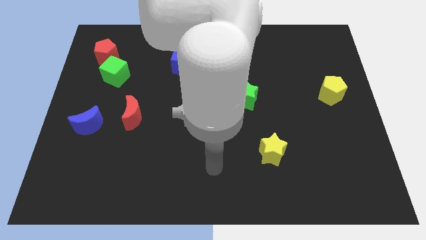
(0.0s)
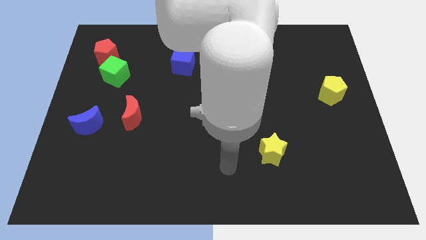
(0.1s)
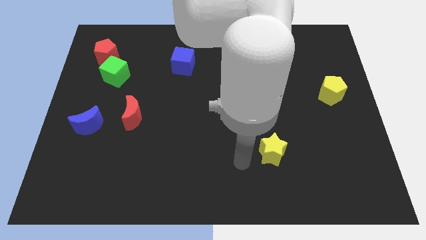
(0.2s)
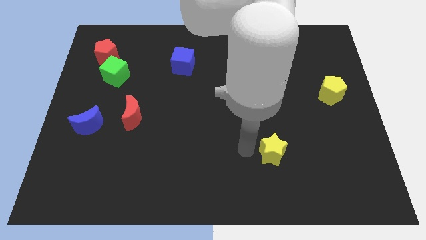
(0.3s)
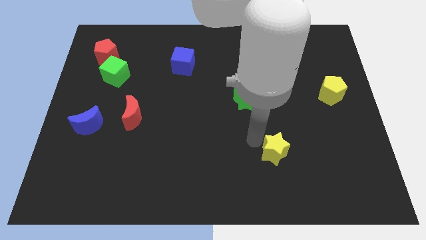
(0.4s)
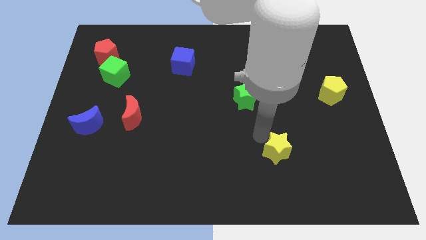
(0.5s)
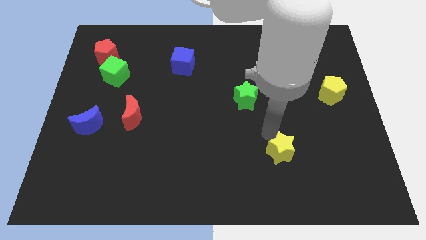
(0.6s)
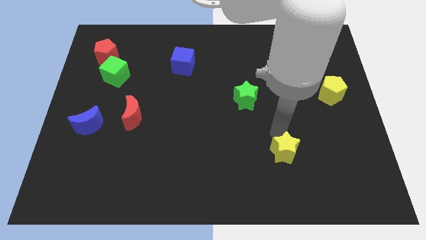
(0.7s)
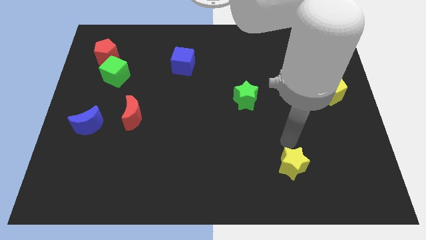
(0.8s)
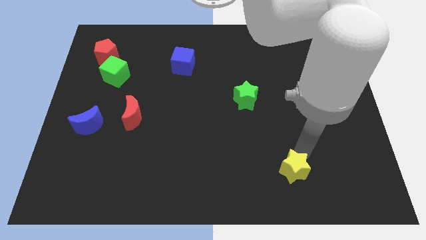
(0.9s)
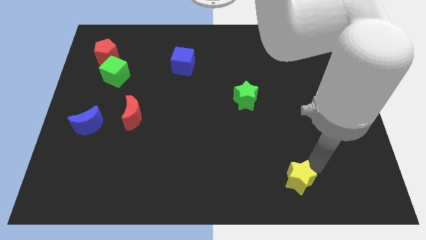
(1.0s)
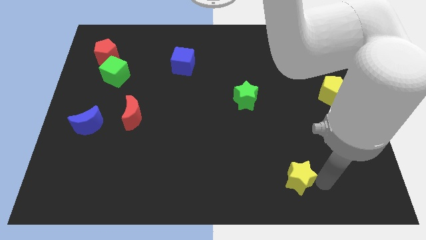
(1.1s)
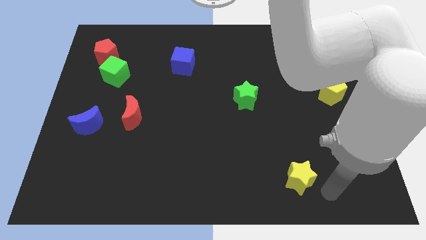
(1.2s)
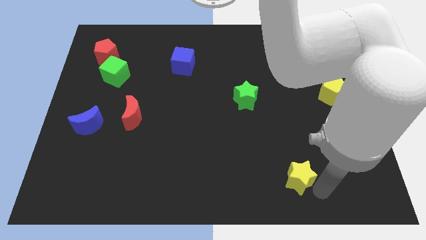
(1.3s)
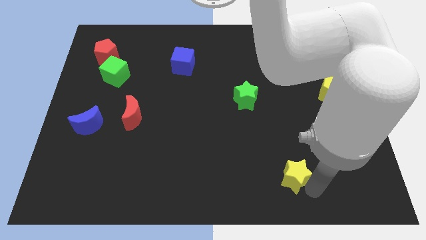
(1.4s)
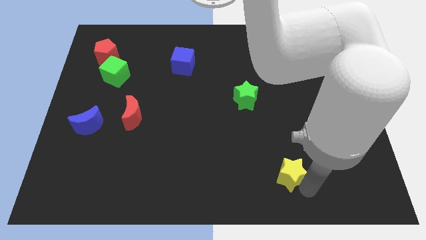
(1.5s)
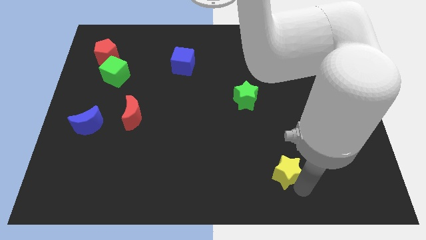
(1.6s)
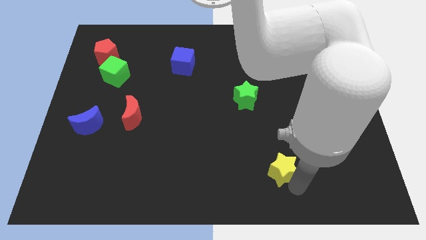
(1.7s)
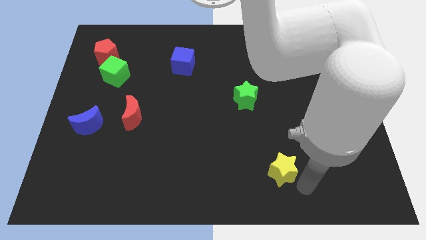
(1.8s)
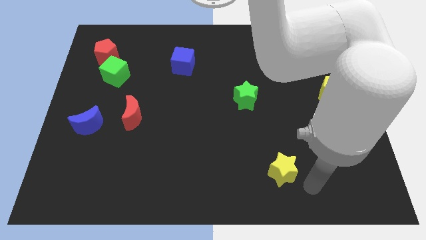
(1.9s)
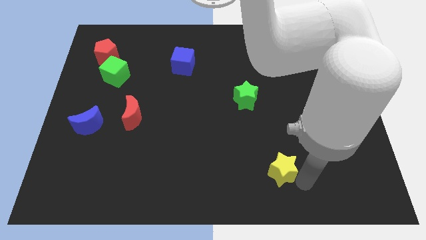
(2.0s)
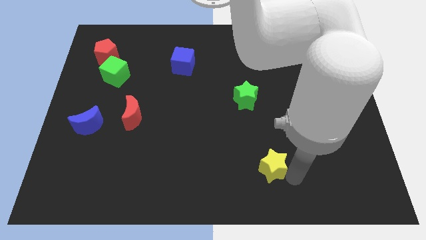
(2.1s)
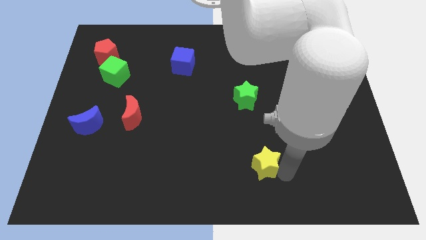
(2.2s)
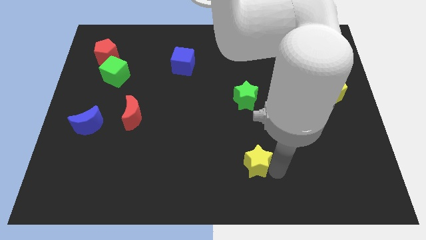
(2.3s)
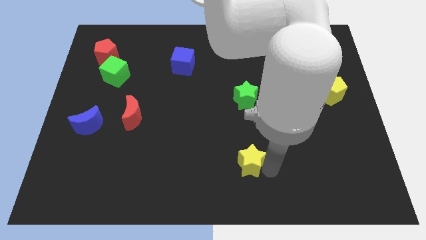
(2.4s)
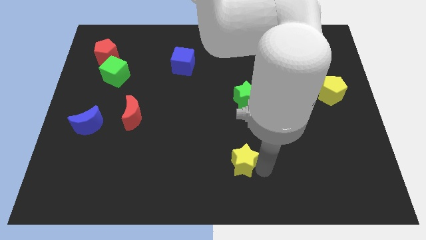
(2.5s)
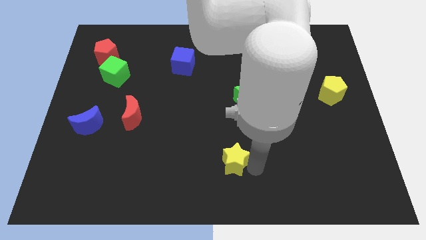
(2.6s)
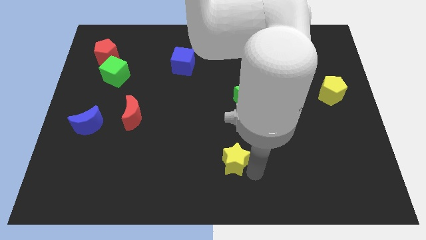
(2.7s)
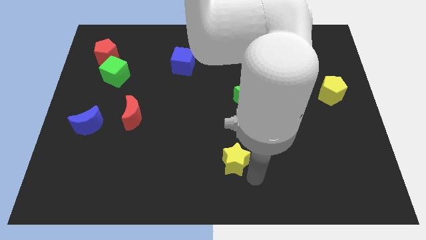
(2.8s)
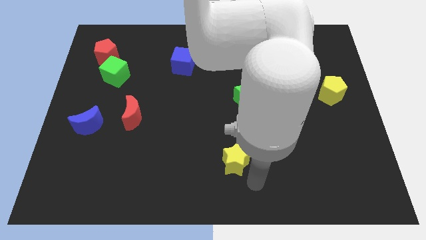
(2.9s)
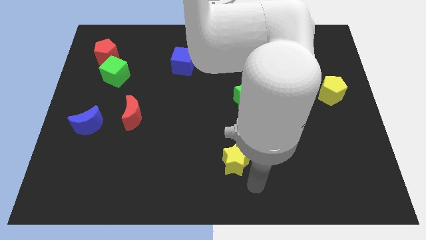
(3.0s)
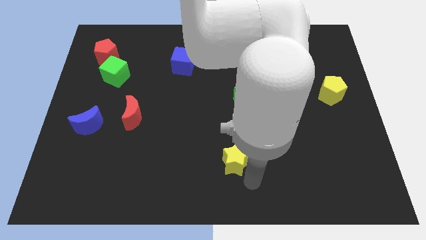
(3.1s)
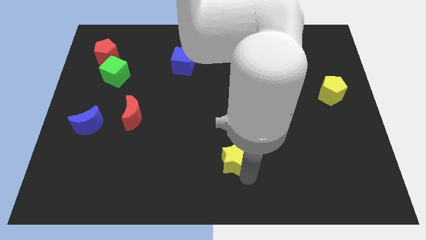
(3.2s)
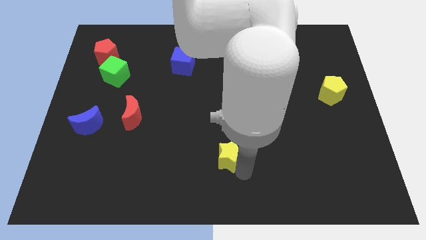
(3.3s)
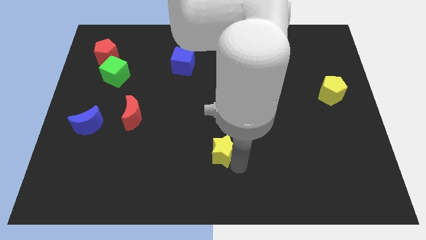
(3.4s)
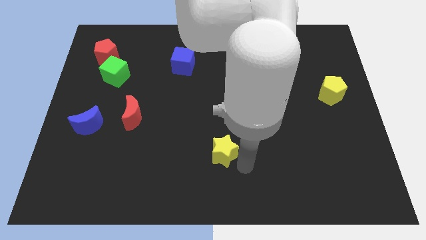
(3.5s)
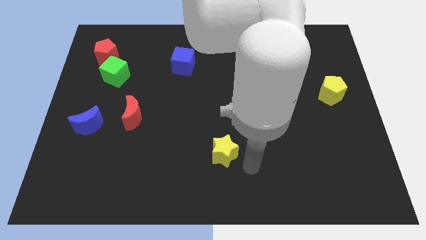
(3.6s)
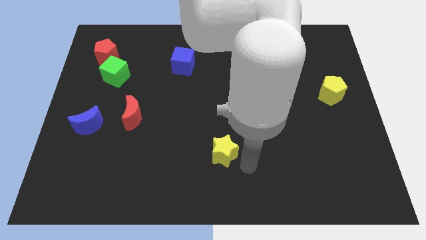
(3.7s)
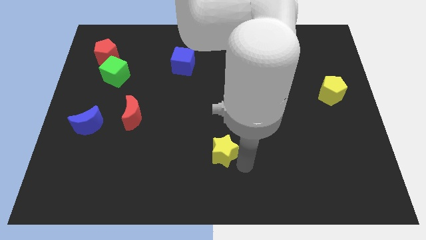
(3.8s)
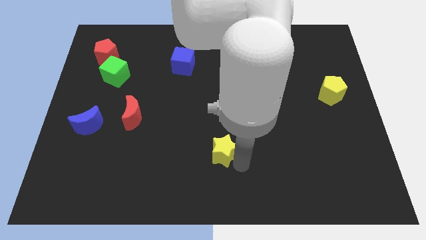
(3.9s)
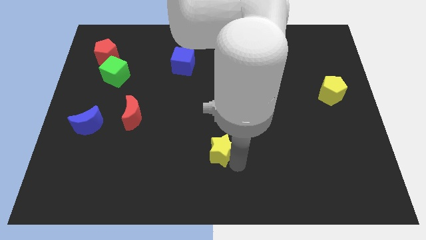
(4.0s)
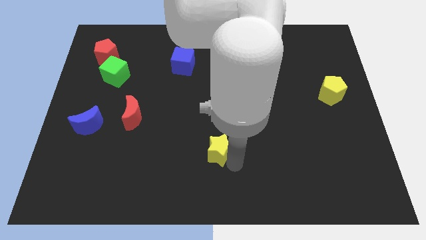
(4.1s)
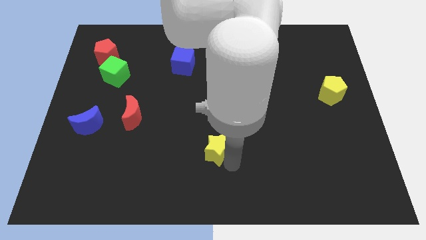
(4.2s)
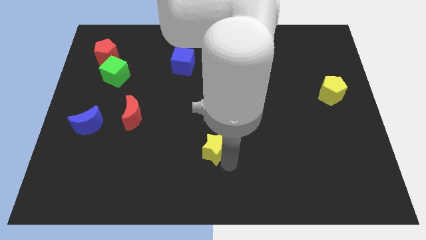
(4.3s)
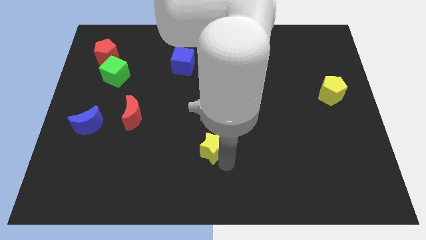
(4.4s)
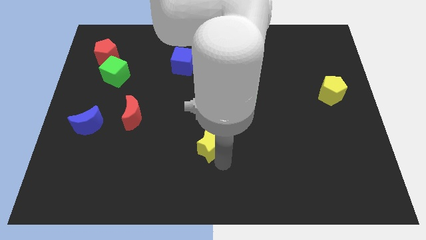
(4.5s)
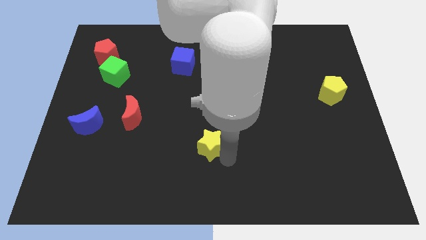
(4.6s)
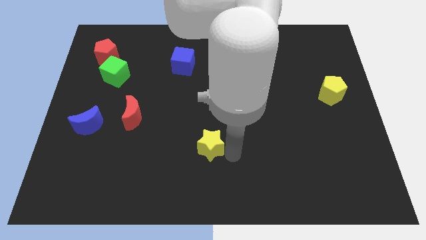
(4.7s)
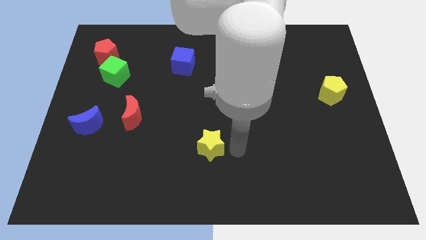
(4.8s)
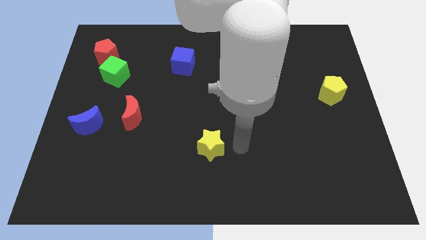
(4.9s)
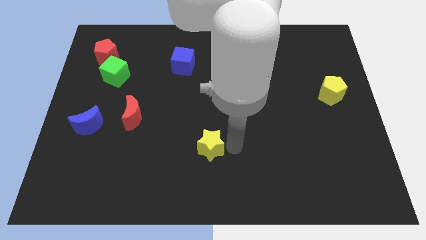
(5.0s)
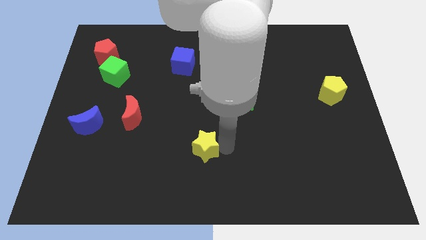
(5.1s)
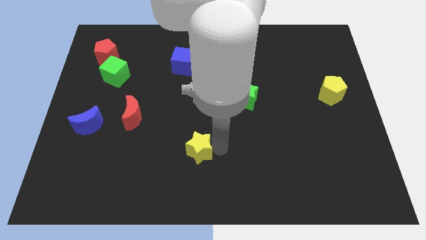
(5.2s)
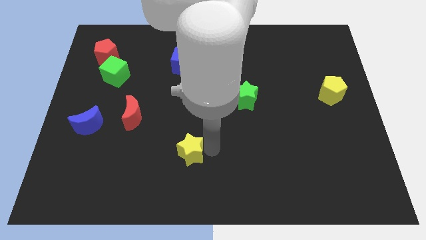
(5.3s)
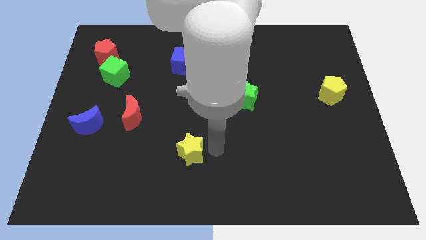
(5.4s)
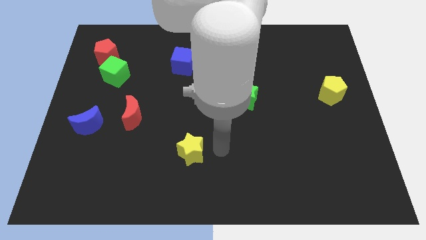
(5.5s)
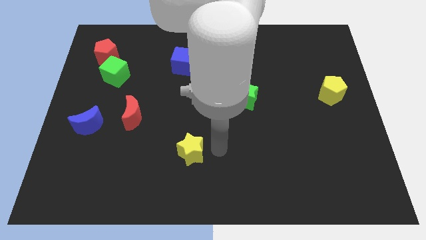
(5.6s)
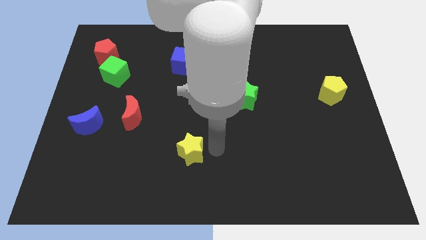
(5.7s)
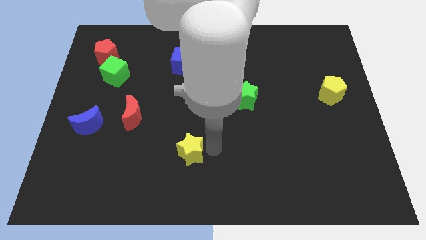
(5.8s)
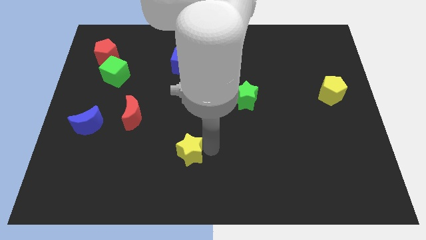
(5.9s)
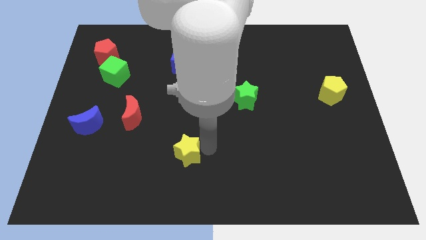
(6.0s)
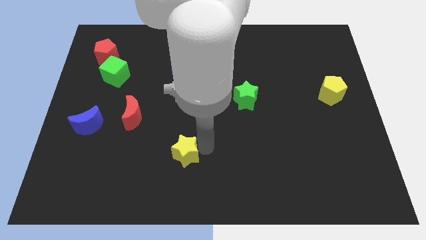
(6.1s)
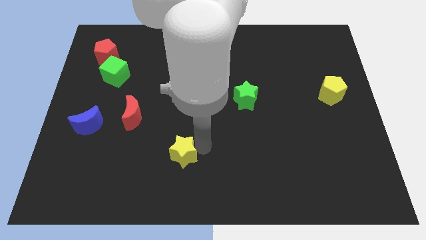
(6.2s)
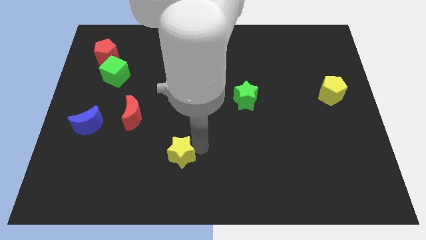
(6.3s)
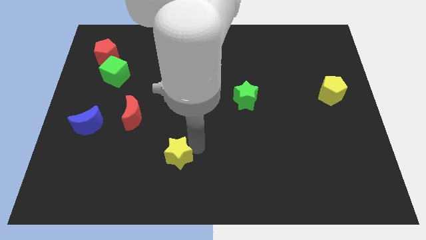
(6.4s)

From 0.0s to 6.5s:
slide the yellow star left

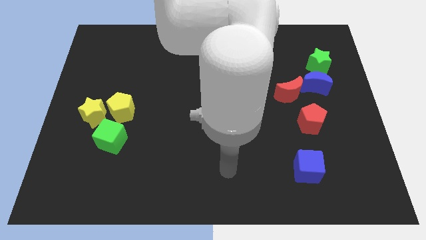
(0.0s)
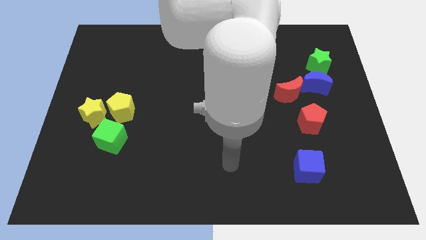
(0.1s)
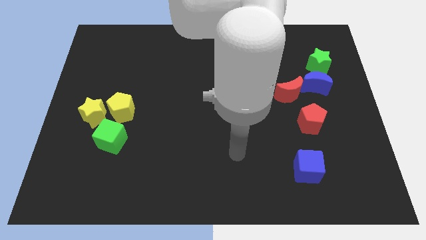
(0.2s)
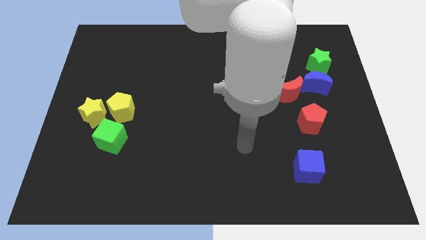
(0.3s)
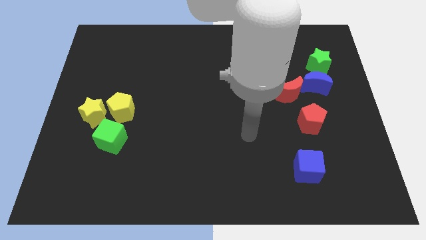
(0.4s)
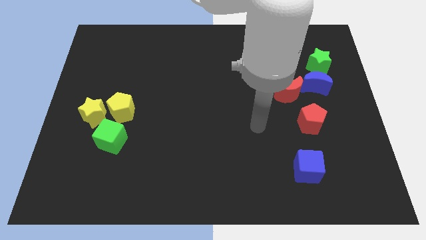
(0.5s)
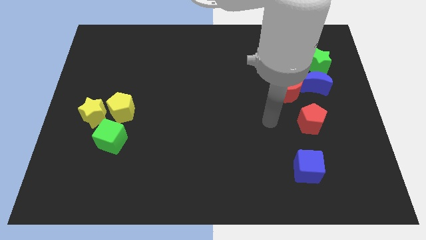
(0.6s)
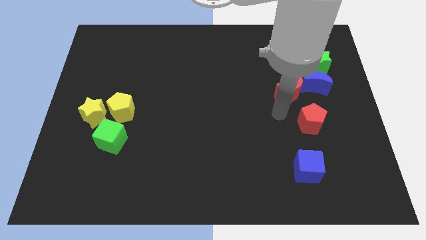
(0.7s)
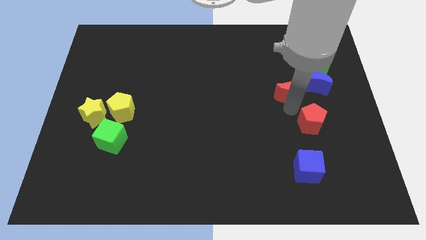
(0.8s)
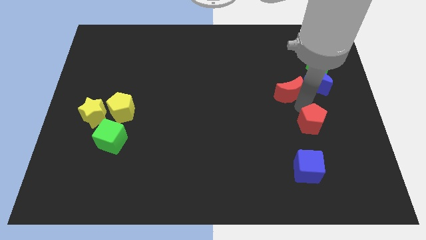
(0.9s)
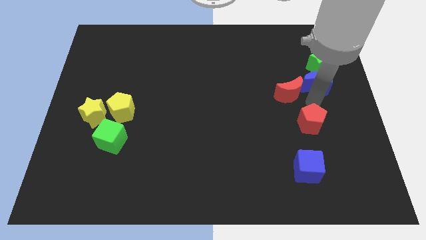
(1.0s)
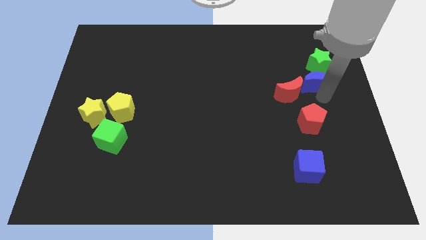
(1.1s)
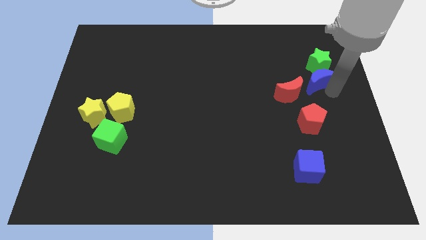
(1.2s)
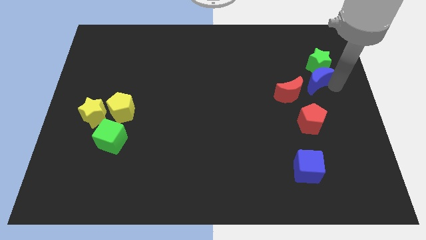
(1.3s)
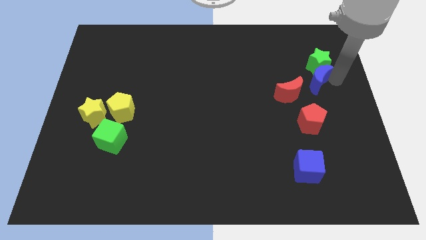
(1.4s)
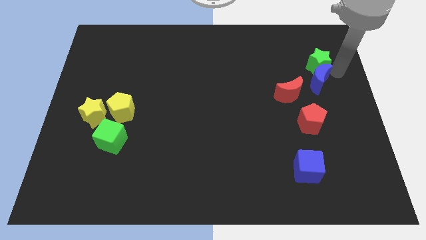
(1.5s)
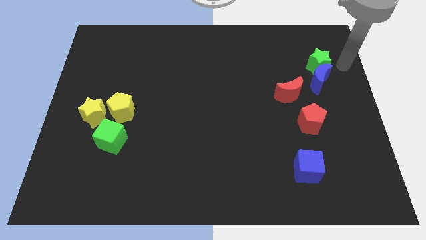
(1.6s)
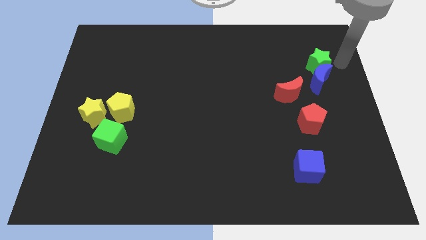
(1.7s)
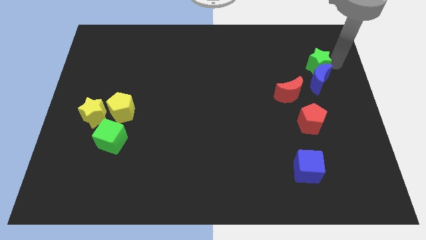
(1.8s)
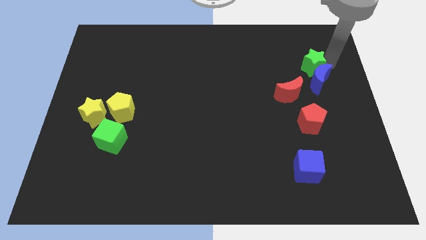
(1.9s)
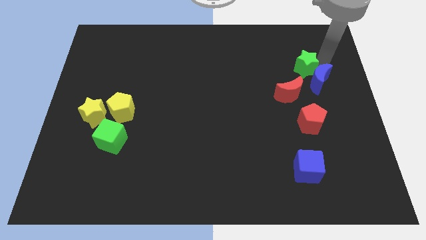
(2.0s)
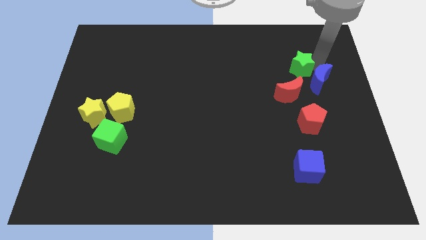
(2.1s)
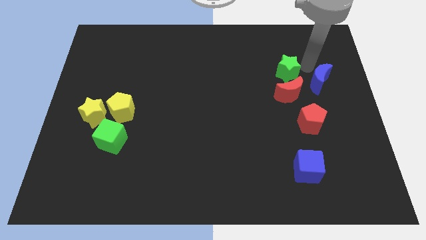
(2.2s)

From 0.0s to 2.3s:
slightly move the green star to the left
